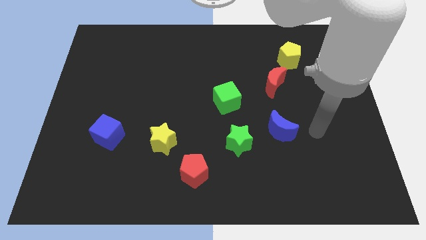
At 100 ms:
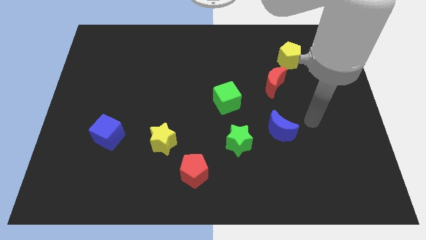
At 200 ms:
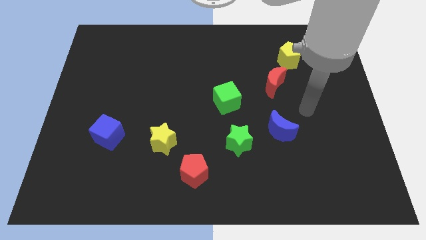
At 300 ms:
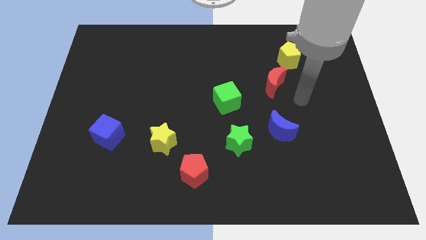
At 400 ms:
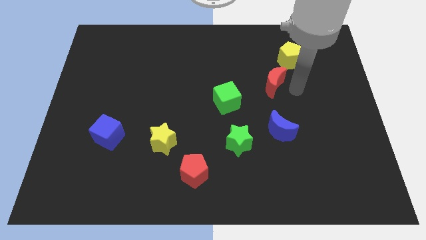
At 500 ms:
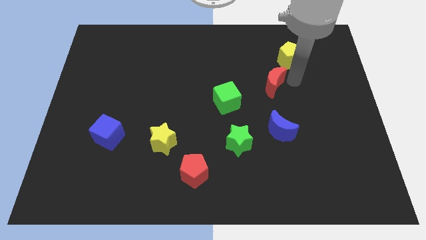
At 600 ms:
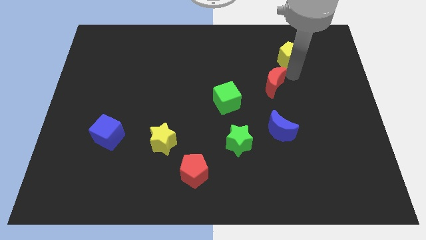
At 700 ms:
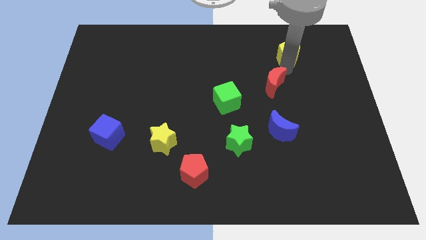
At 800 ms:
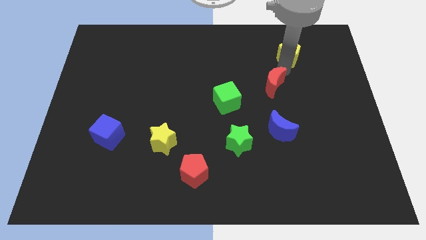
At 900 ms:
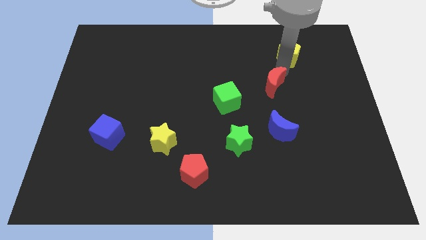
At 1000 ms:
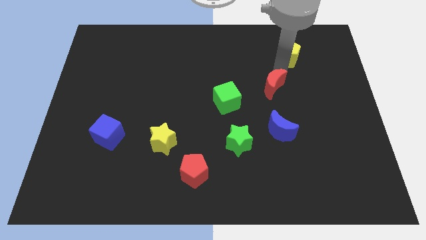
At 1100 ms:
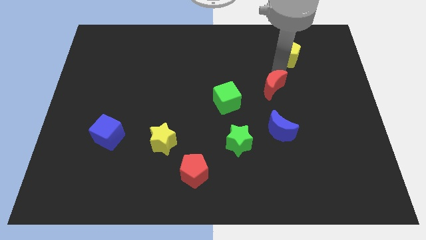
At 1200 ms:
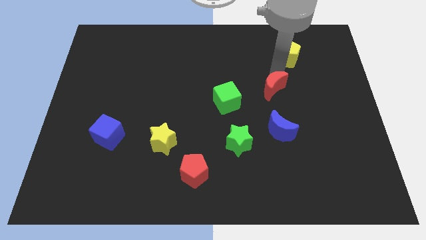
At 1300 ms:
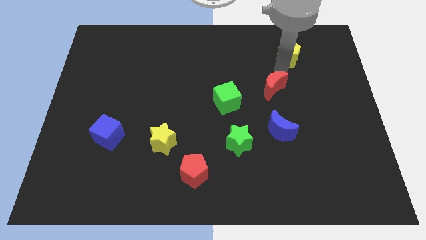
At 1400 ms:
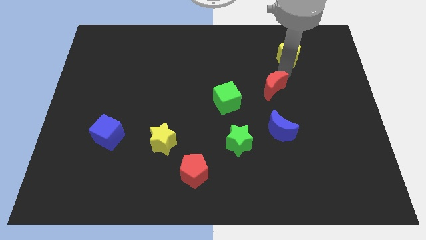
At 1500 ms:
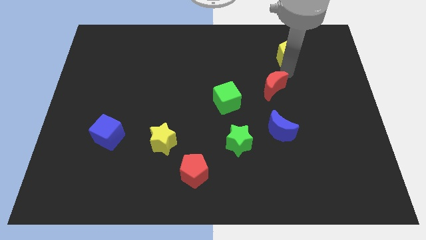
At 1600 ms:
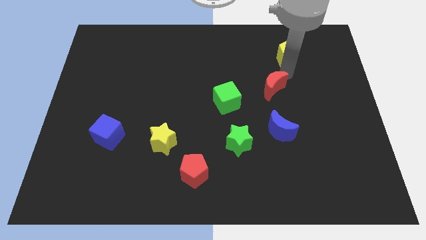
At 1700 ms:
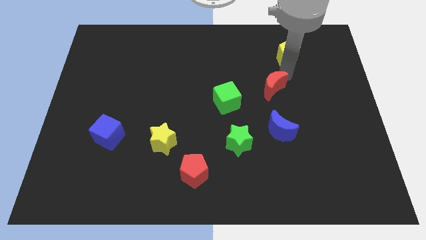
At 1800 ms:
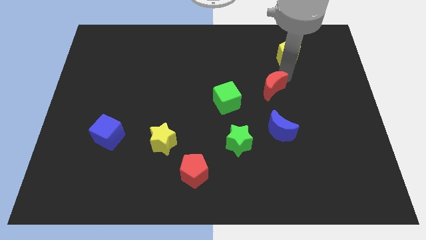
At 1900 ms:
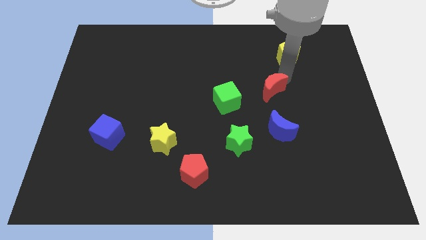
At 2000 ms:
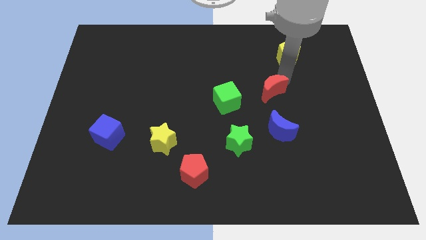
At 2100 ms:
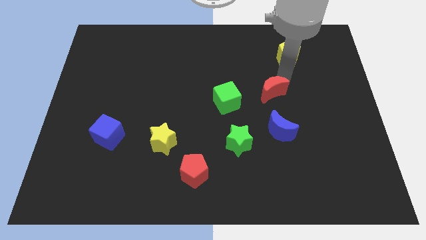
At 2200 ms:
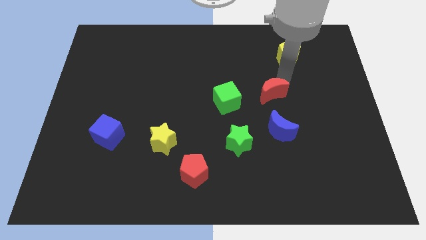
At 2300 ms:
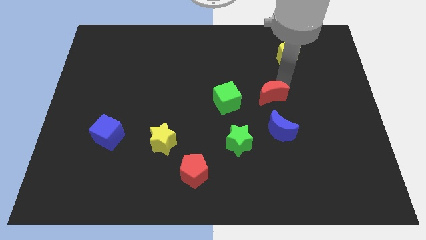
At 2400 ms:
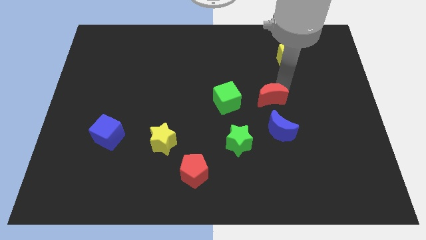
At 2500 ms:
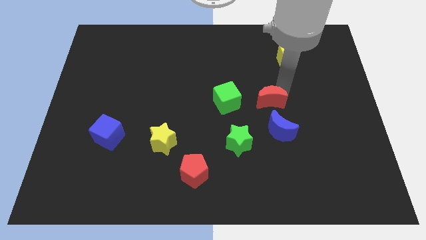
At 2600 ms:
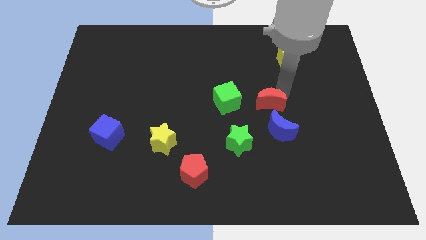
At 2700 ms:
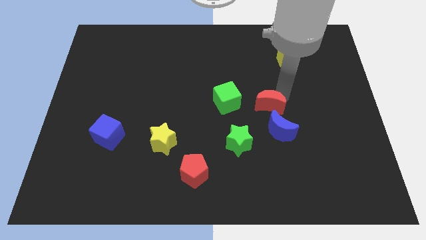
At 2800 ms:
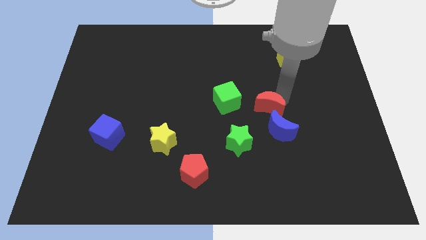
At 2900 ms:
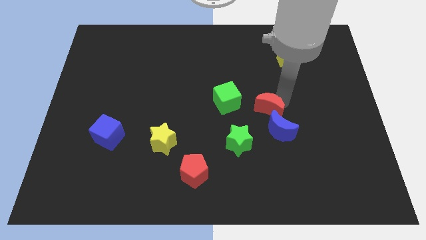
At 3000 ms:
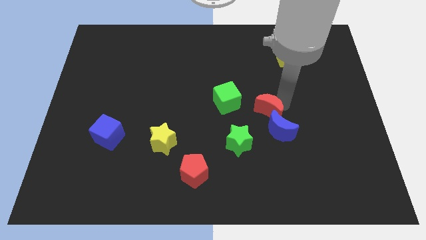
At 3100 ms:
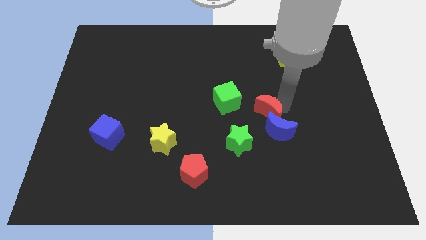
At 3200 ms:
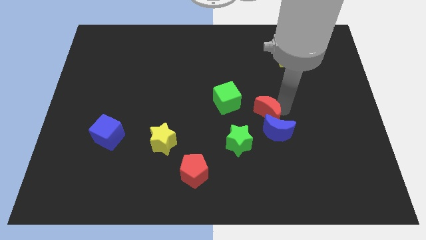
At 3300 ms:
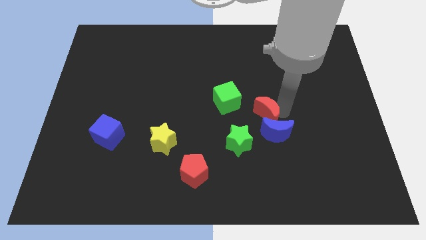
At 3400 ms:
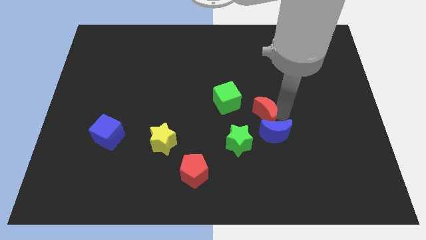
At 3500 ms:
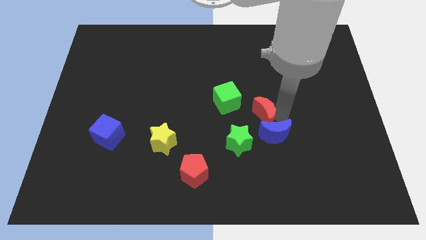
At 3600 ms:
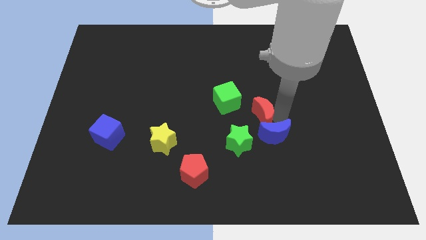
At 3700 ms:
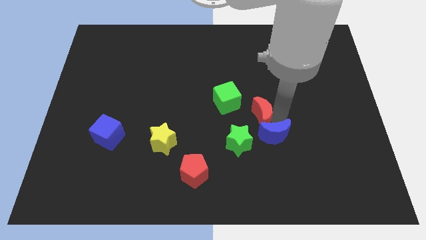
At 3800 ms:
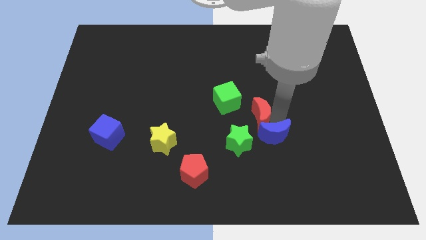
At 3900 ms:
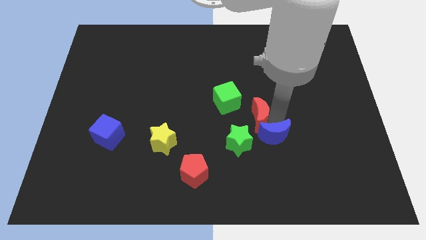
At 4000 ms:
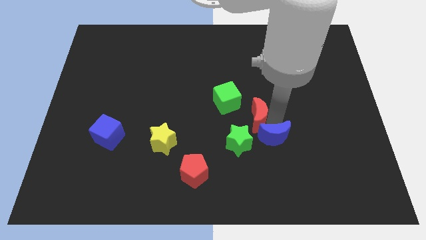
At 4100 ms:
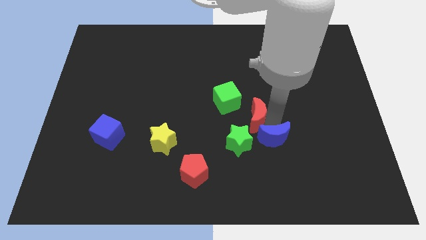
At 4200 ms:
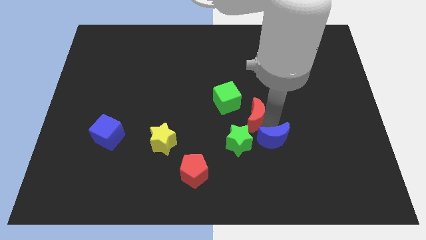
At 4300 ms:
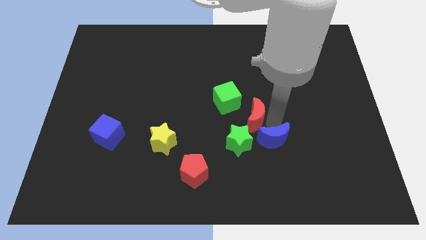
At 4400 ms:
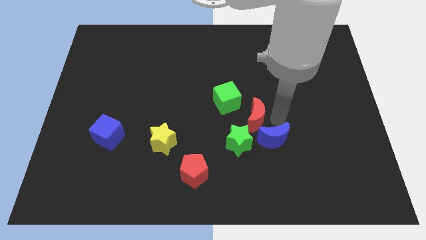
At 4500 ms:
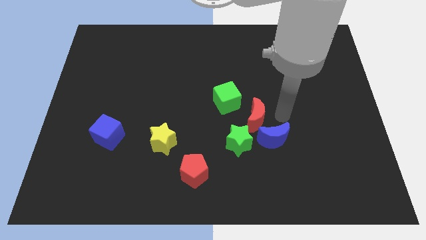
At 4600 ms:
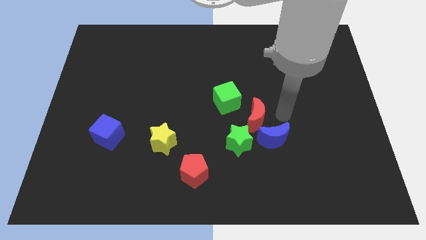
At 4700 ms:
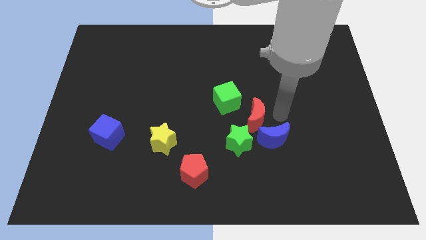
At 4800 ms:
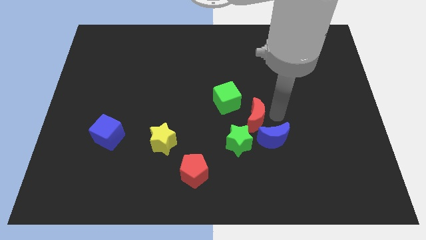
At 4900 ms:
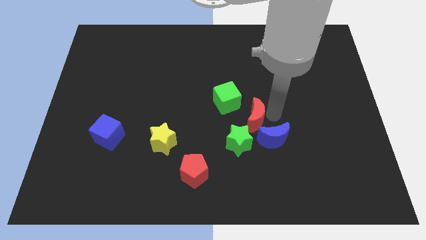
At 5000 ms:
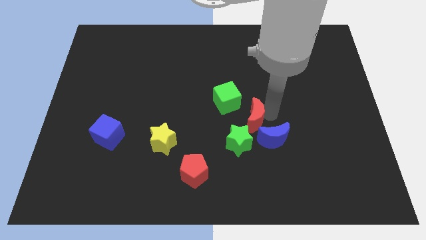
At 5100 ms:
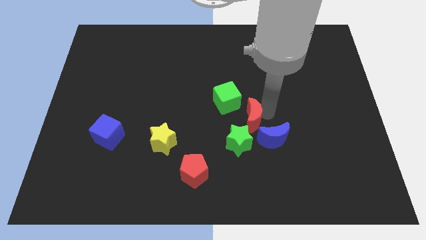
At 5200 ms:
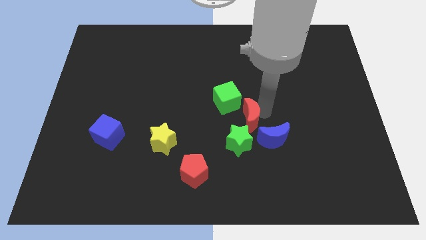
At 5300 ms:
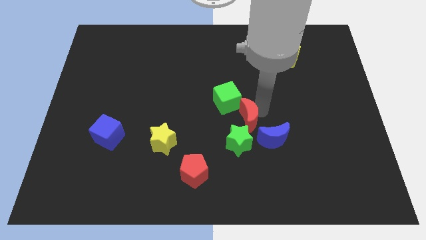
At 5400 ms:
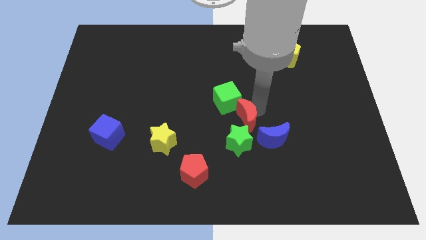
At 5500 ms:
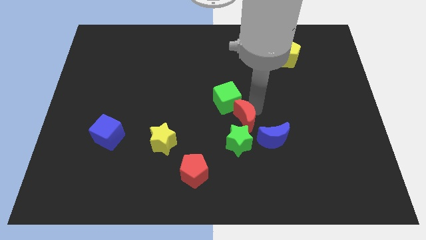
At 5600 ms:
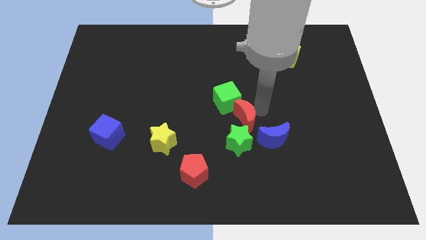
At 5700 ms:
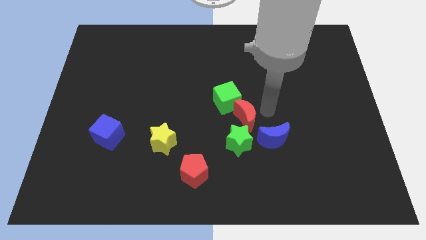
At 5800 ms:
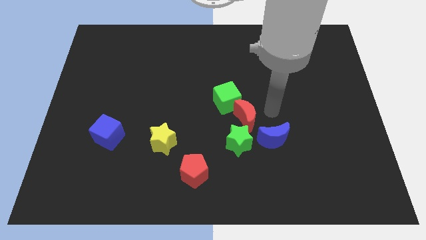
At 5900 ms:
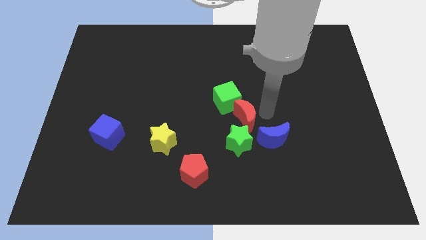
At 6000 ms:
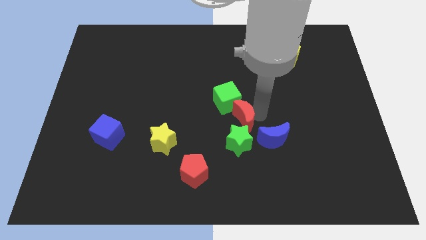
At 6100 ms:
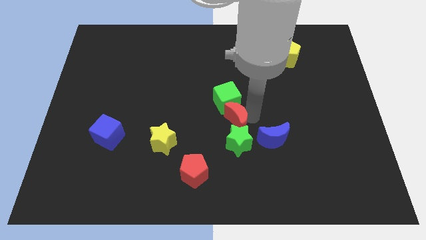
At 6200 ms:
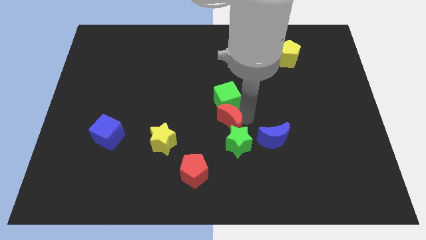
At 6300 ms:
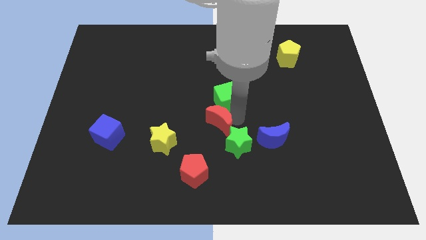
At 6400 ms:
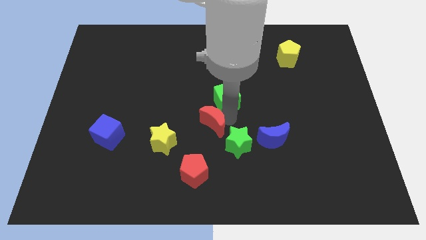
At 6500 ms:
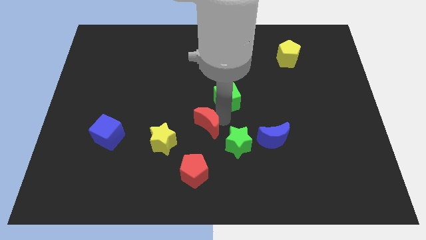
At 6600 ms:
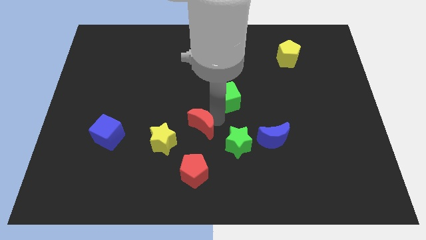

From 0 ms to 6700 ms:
move the red moon downwards and then to the left

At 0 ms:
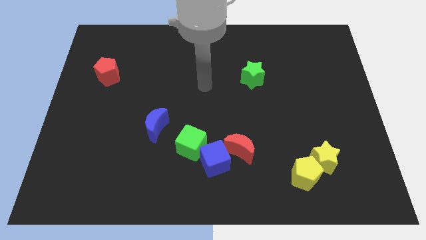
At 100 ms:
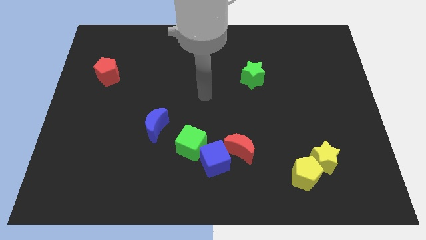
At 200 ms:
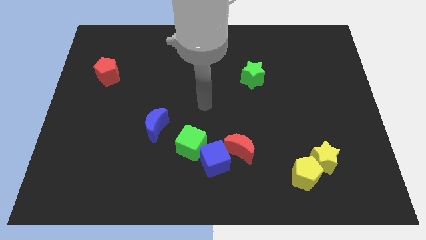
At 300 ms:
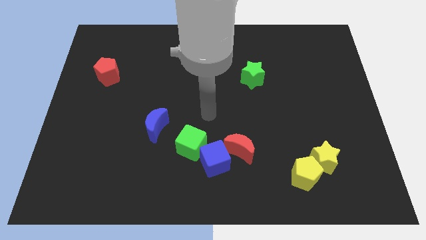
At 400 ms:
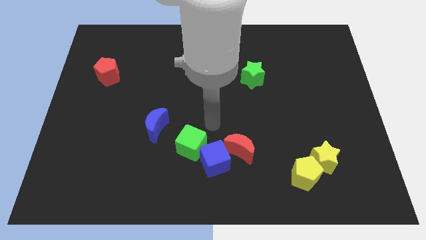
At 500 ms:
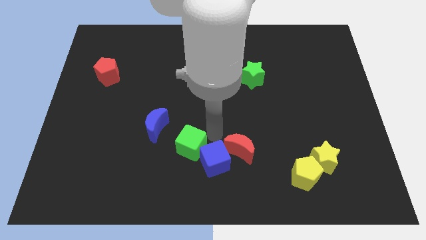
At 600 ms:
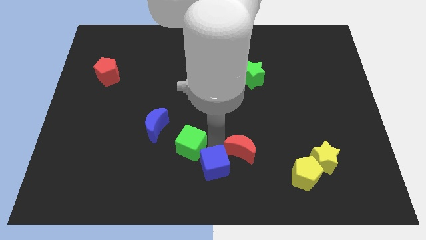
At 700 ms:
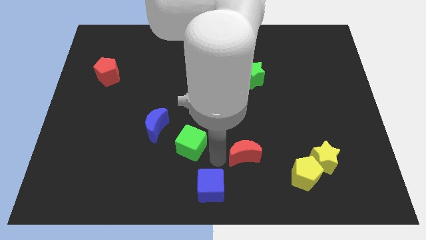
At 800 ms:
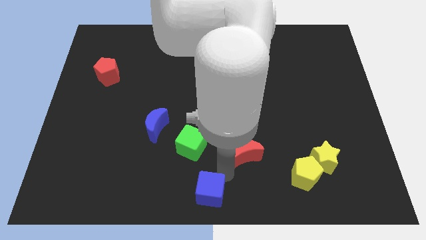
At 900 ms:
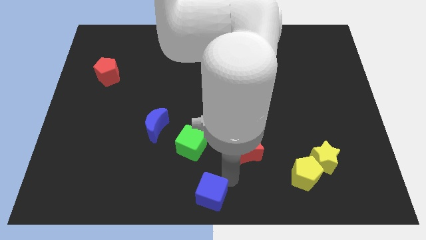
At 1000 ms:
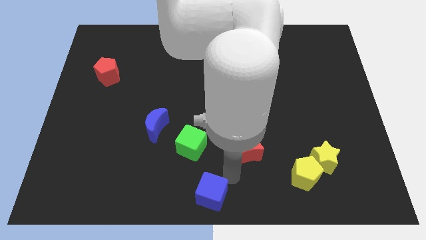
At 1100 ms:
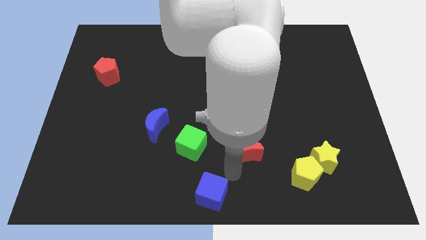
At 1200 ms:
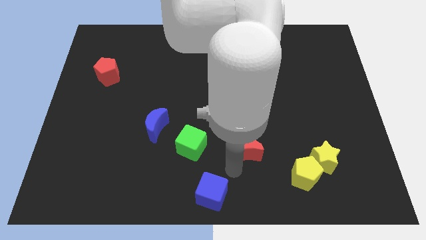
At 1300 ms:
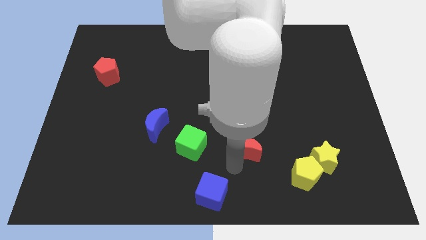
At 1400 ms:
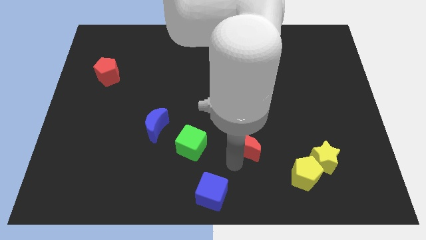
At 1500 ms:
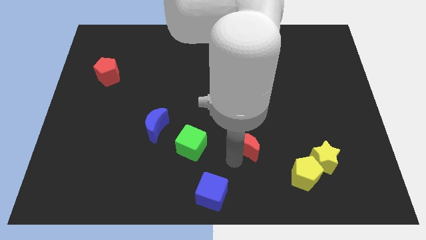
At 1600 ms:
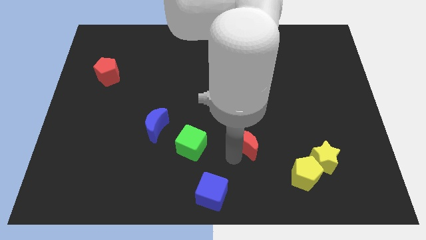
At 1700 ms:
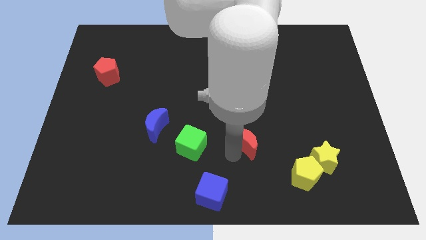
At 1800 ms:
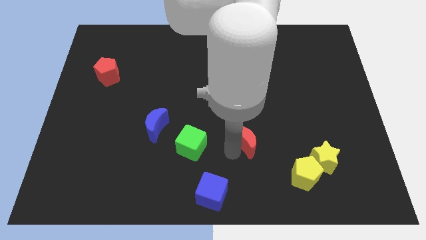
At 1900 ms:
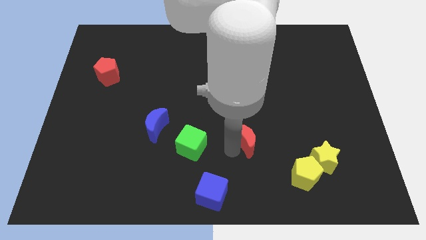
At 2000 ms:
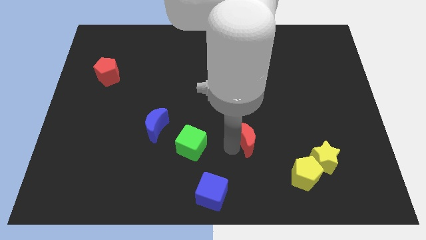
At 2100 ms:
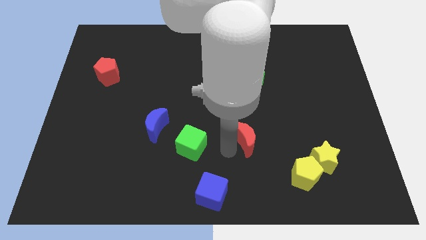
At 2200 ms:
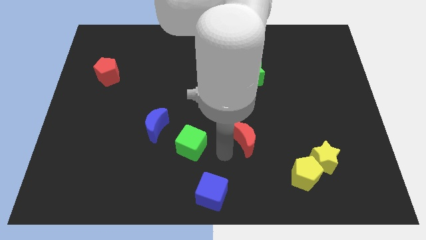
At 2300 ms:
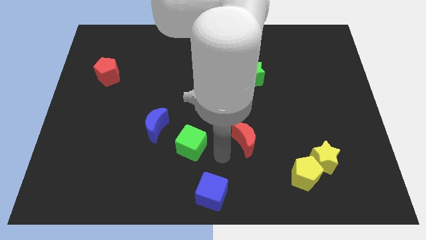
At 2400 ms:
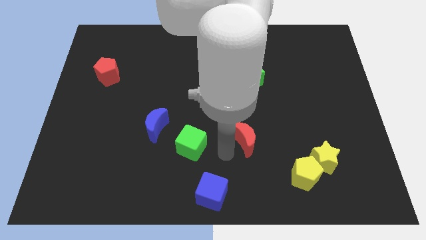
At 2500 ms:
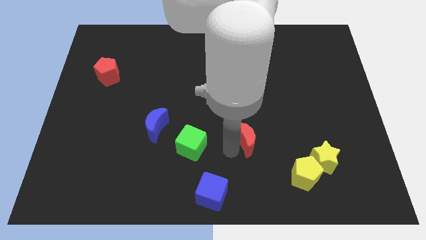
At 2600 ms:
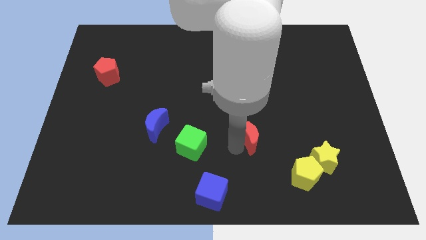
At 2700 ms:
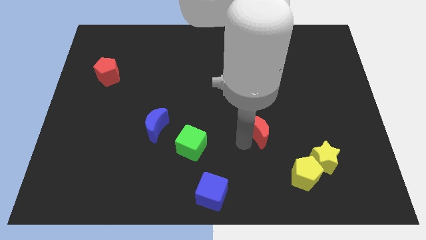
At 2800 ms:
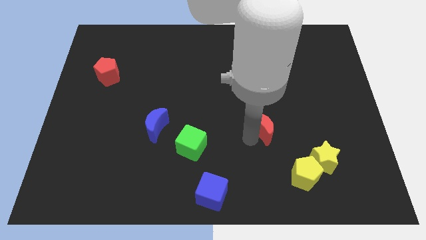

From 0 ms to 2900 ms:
move the red moon up and to the right somewhat
